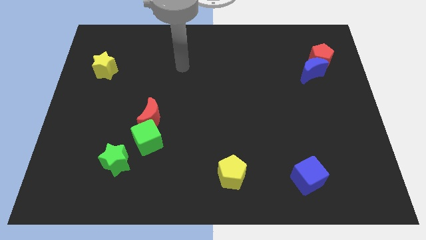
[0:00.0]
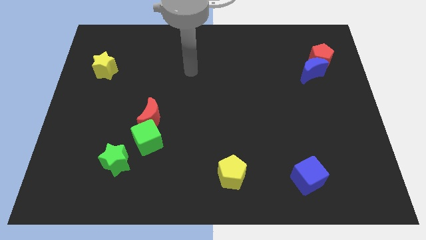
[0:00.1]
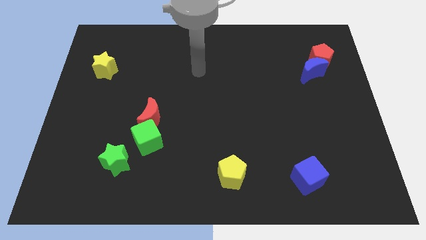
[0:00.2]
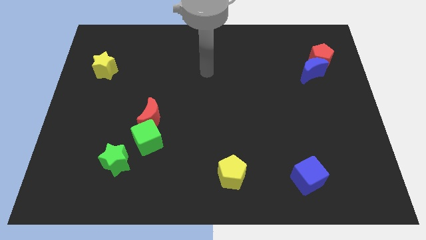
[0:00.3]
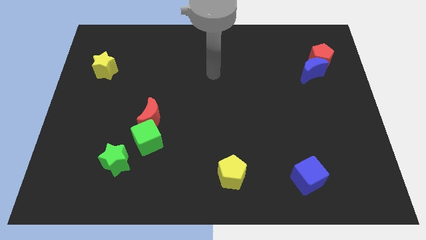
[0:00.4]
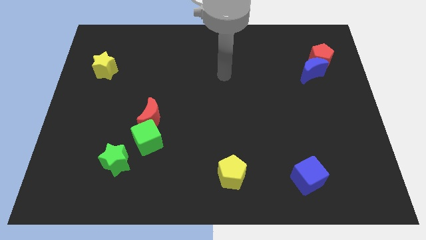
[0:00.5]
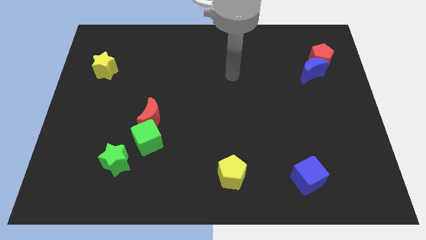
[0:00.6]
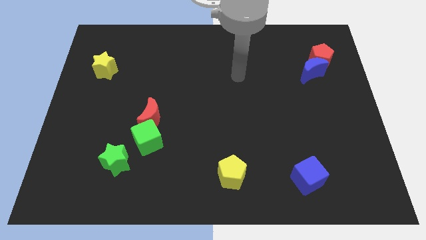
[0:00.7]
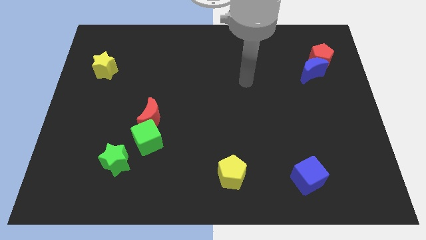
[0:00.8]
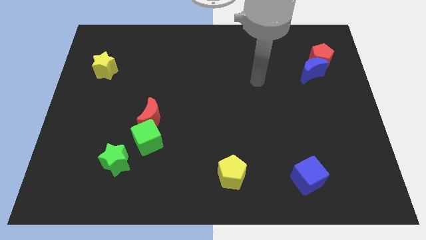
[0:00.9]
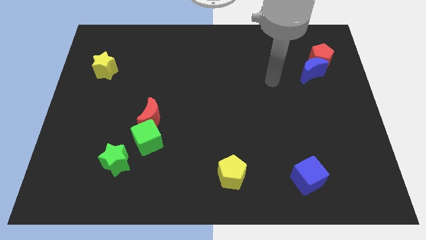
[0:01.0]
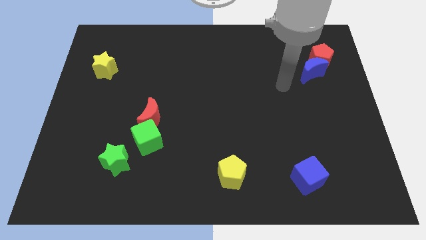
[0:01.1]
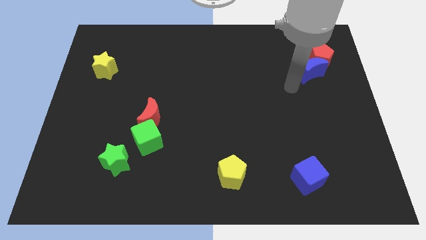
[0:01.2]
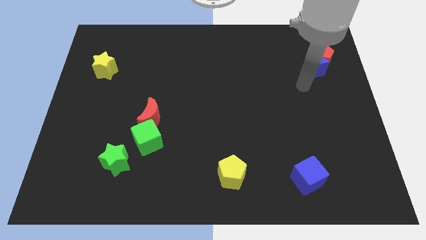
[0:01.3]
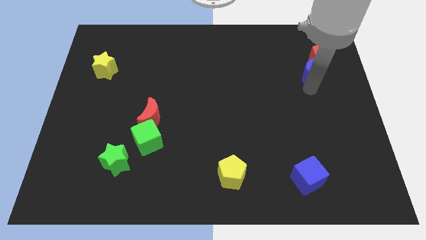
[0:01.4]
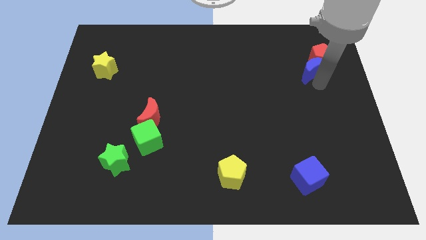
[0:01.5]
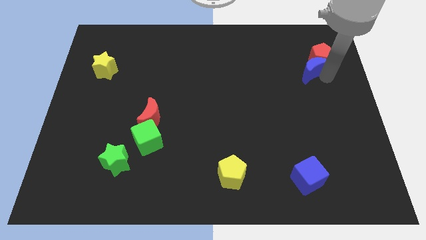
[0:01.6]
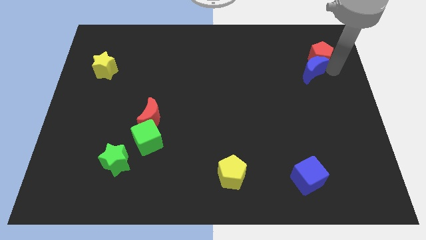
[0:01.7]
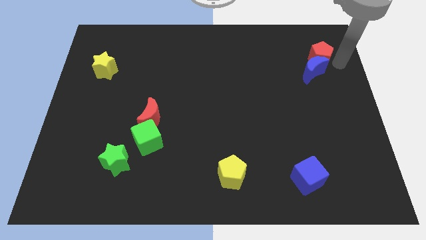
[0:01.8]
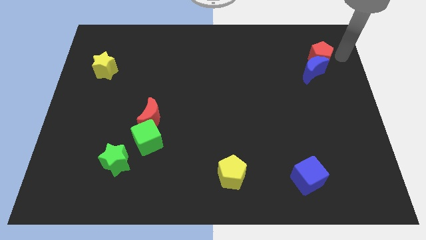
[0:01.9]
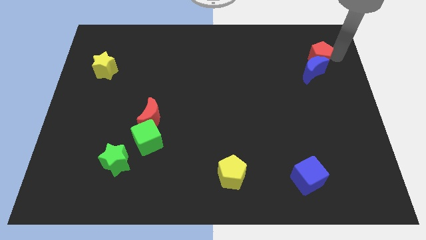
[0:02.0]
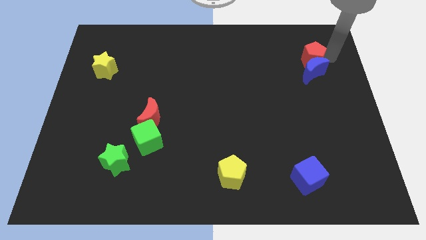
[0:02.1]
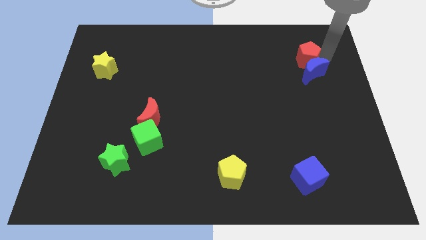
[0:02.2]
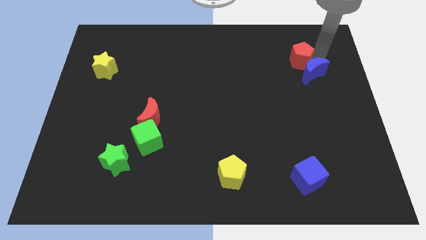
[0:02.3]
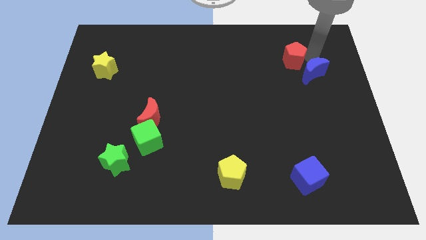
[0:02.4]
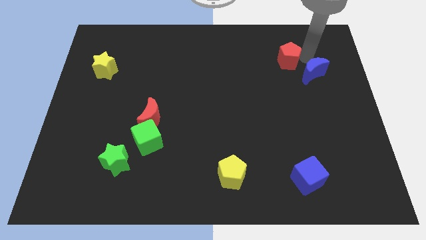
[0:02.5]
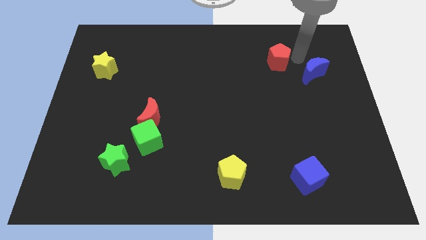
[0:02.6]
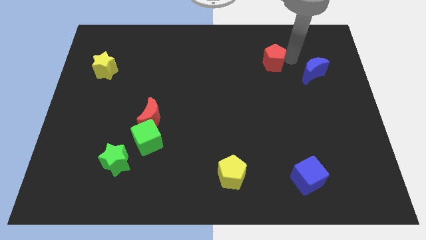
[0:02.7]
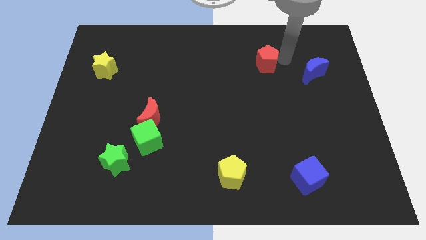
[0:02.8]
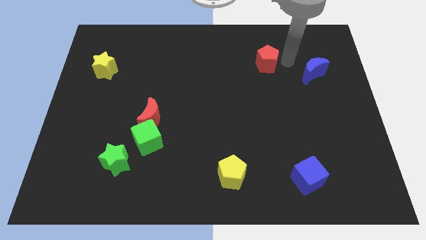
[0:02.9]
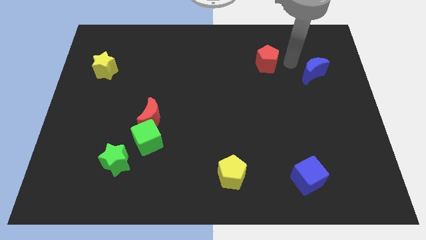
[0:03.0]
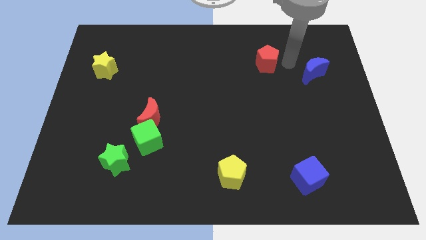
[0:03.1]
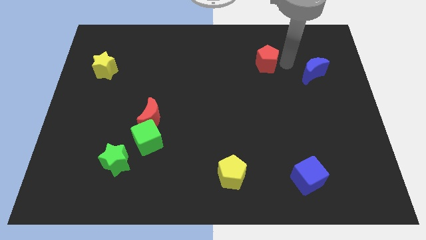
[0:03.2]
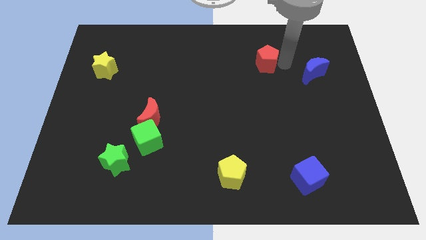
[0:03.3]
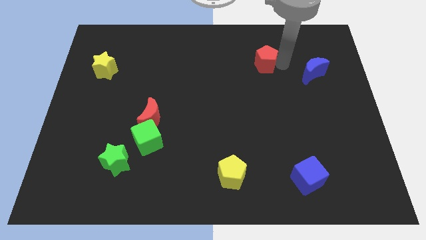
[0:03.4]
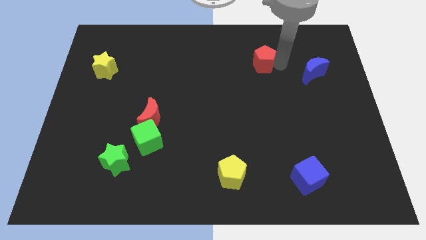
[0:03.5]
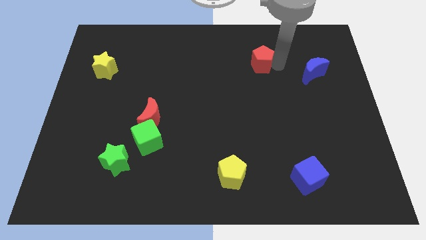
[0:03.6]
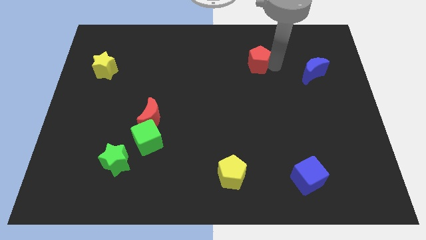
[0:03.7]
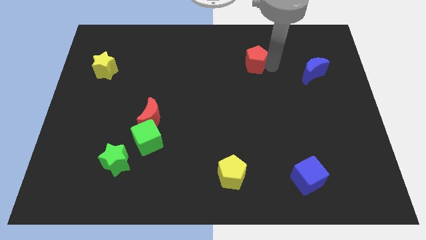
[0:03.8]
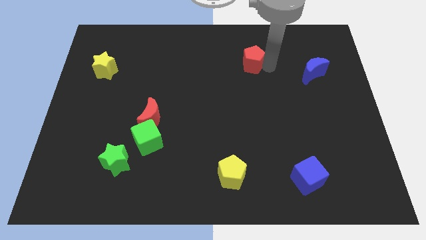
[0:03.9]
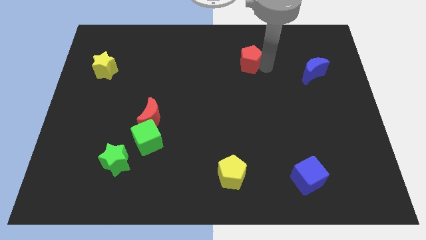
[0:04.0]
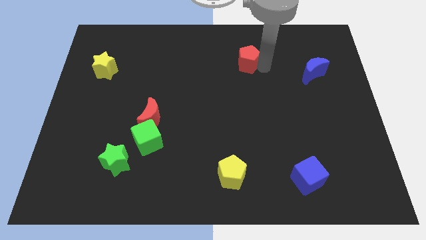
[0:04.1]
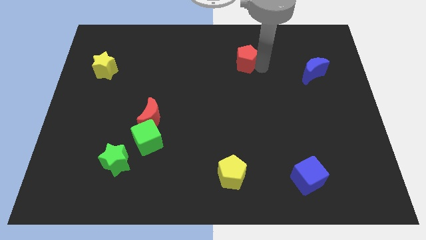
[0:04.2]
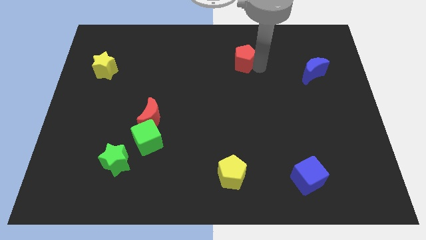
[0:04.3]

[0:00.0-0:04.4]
move the red pentagon to the left

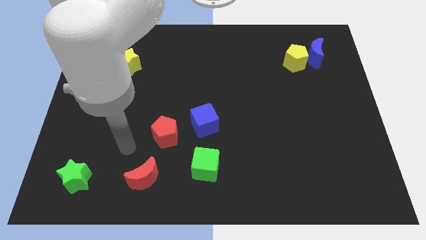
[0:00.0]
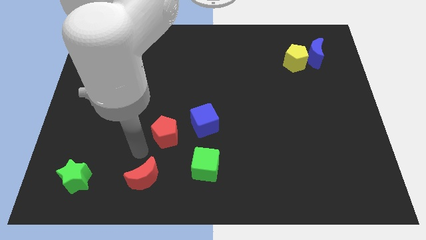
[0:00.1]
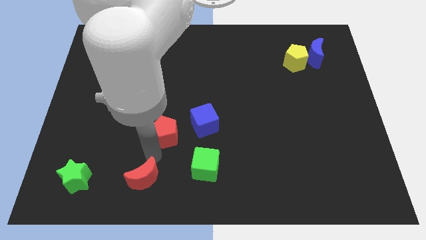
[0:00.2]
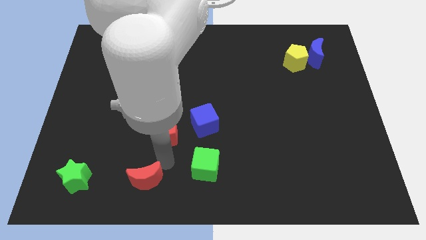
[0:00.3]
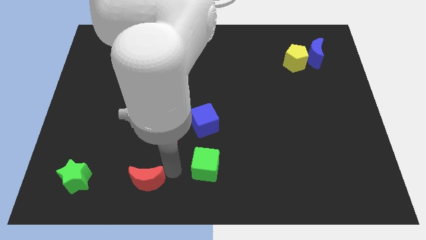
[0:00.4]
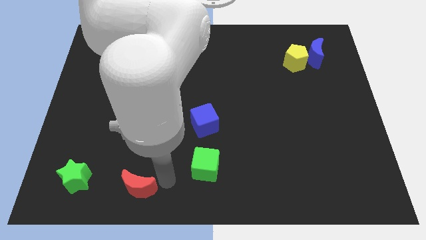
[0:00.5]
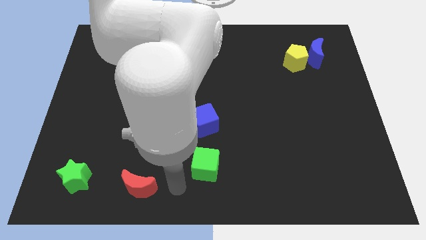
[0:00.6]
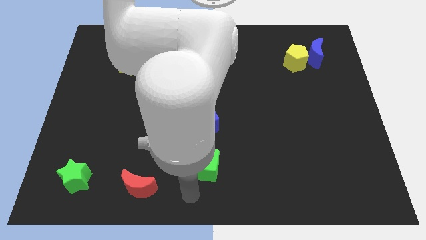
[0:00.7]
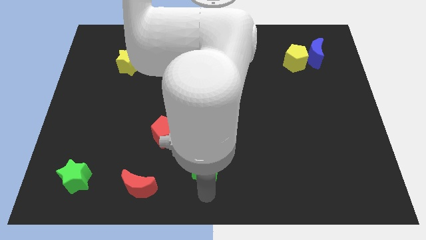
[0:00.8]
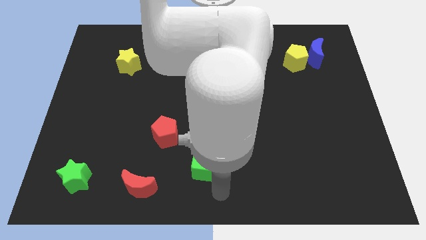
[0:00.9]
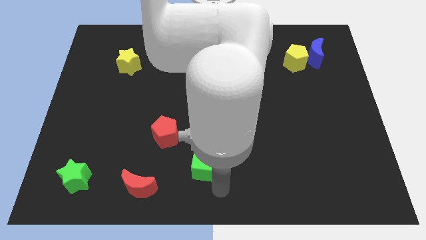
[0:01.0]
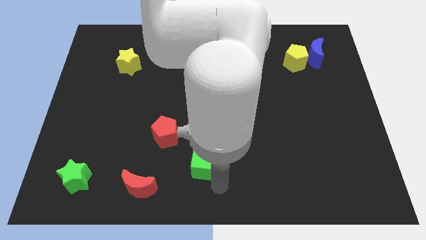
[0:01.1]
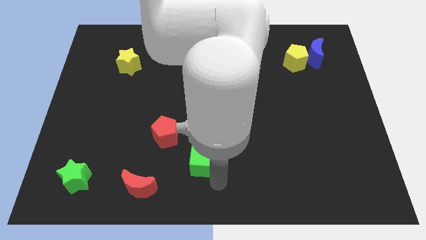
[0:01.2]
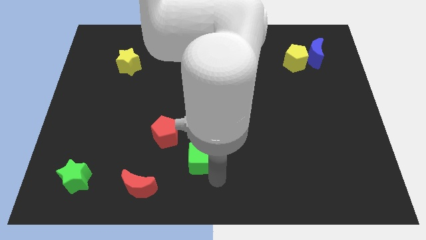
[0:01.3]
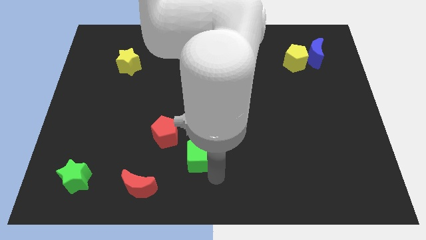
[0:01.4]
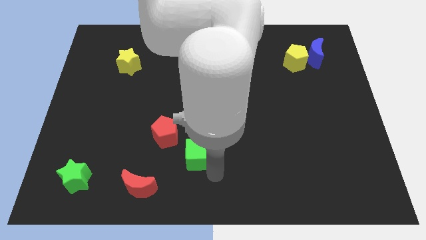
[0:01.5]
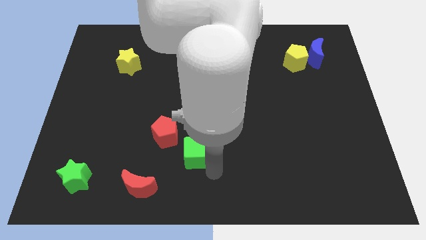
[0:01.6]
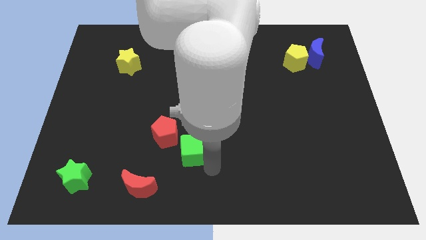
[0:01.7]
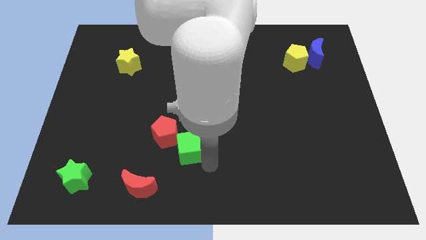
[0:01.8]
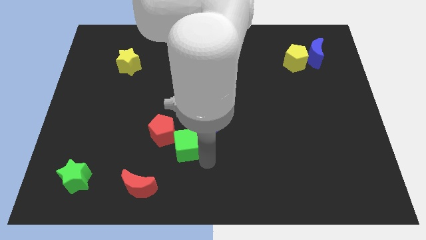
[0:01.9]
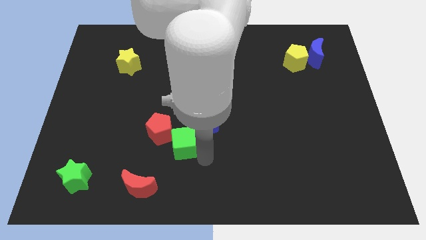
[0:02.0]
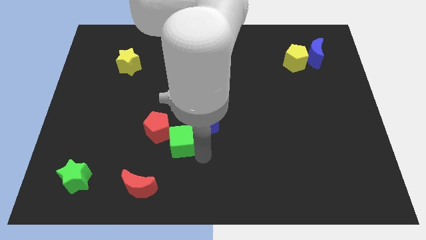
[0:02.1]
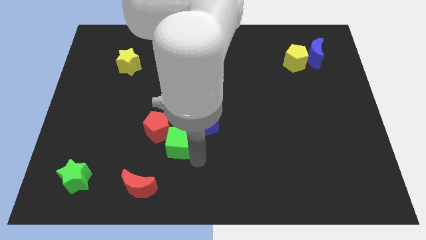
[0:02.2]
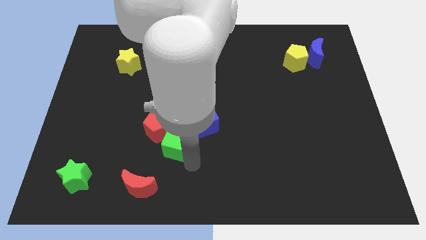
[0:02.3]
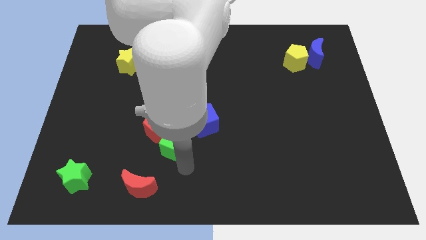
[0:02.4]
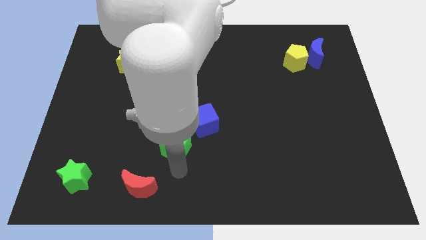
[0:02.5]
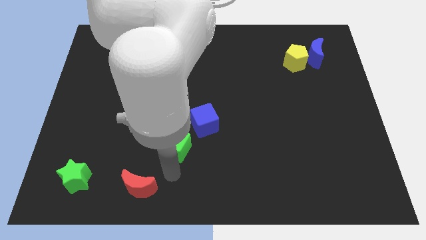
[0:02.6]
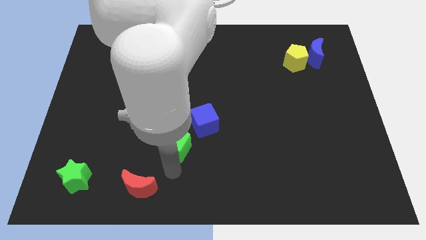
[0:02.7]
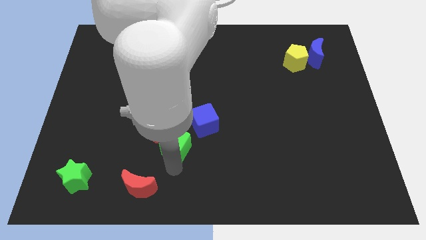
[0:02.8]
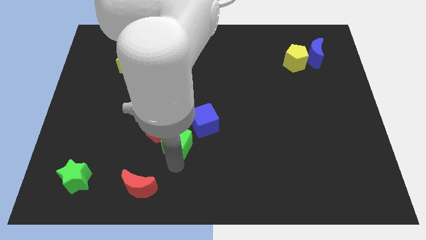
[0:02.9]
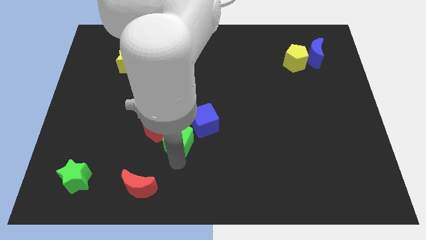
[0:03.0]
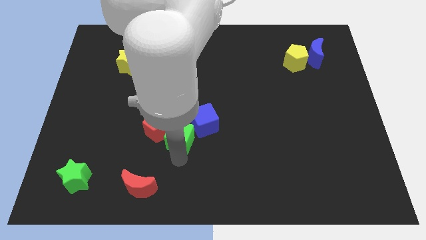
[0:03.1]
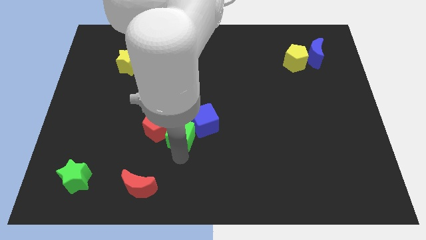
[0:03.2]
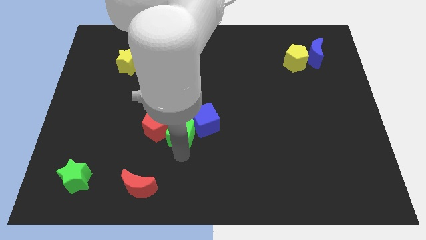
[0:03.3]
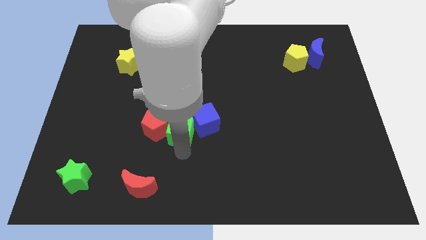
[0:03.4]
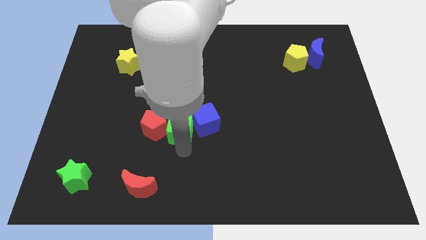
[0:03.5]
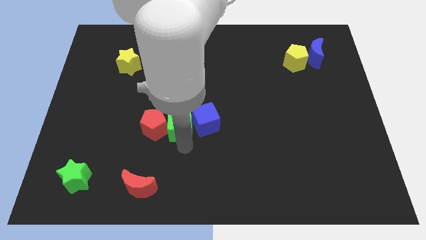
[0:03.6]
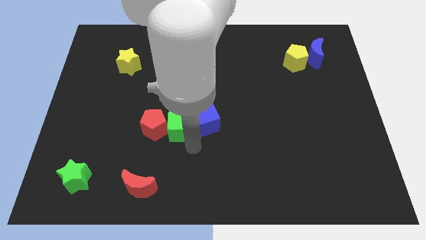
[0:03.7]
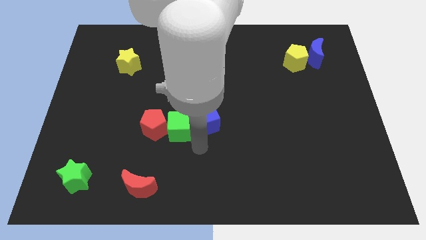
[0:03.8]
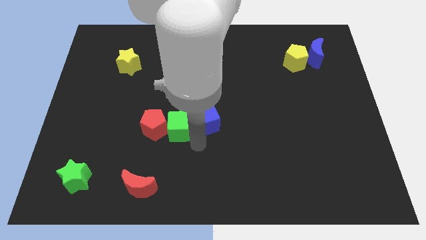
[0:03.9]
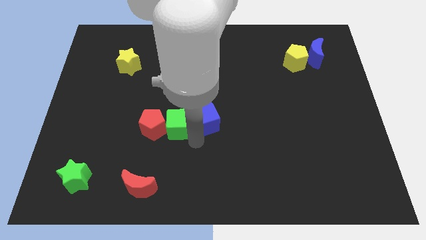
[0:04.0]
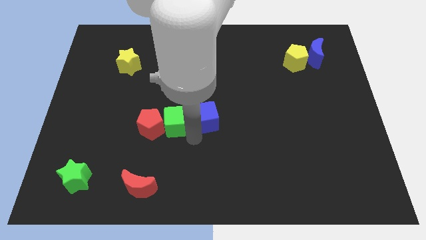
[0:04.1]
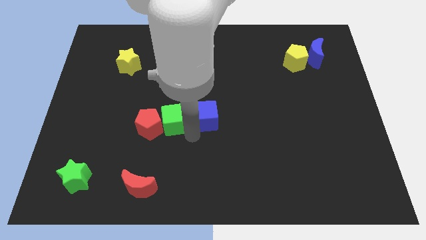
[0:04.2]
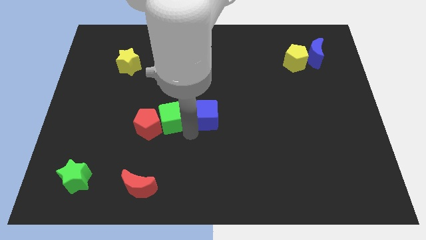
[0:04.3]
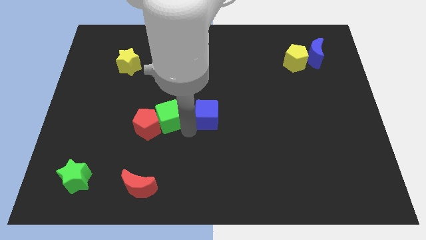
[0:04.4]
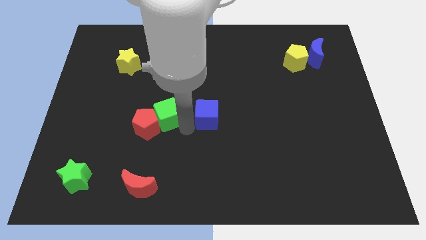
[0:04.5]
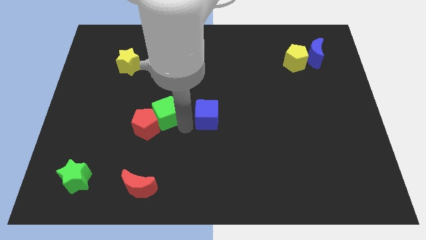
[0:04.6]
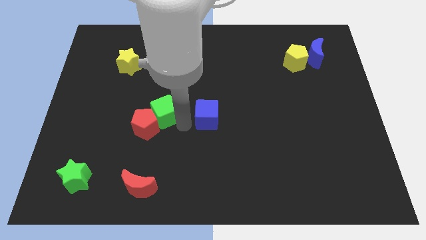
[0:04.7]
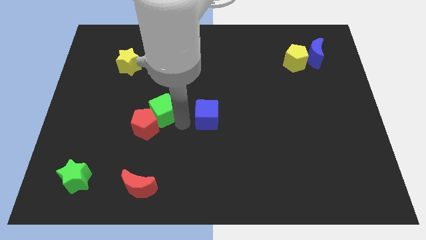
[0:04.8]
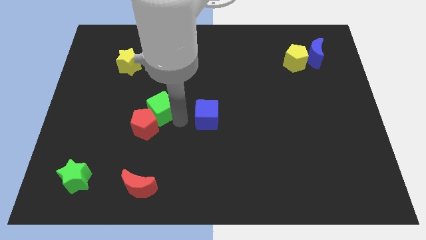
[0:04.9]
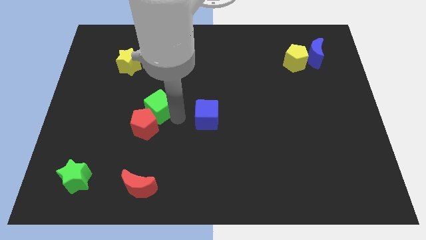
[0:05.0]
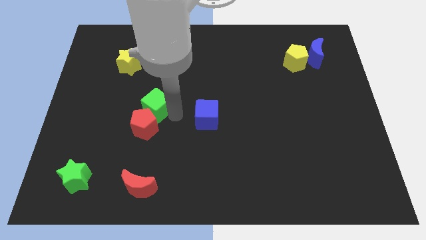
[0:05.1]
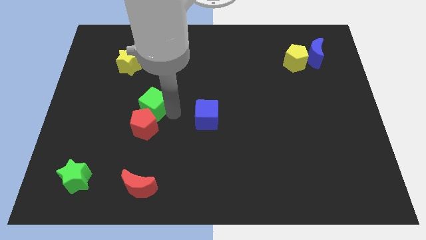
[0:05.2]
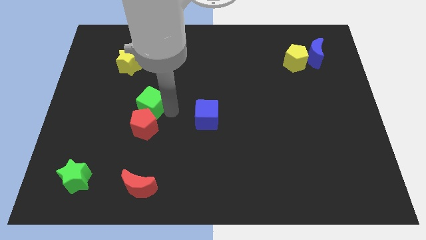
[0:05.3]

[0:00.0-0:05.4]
push the green cube upwards and then to the left
